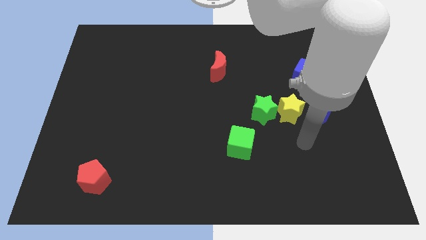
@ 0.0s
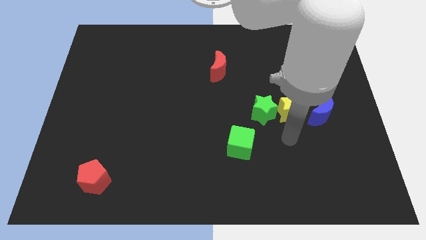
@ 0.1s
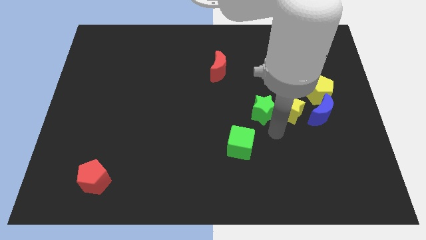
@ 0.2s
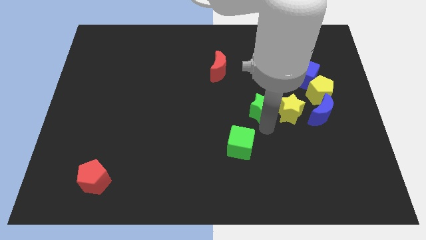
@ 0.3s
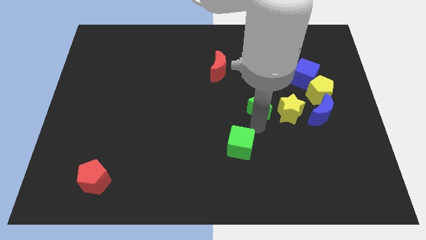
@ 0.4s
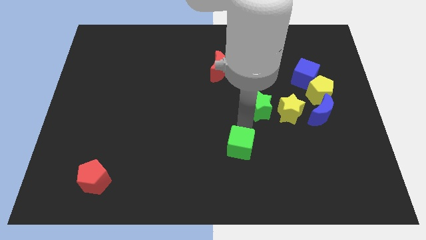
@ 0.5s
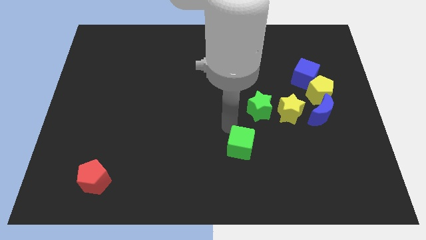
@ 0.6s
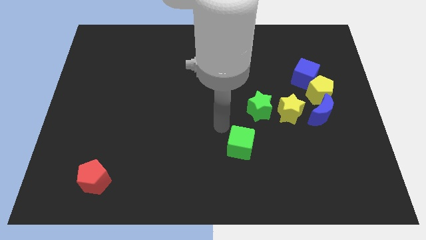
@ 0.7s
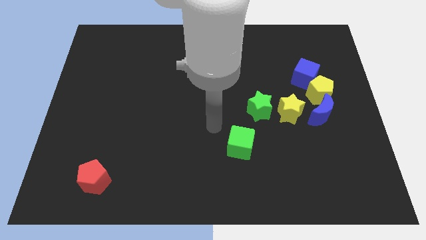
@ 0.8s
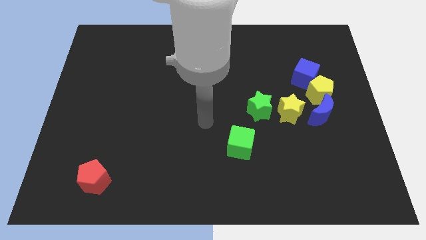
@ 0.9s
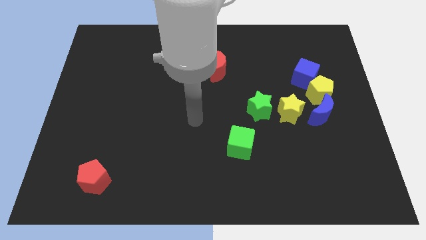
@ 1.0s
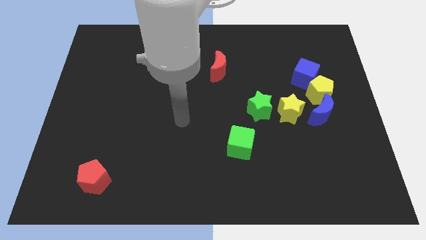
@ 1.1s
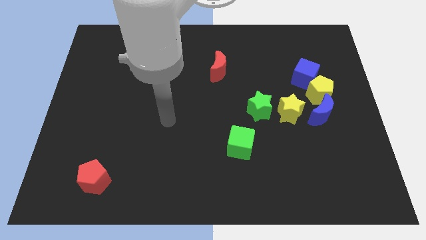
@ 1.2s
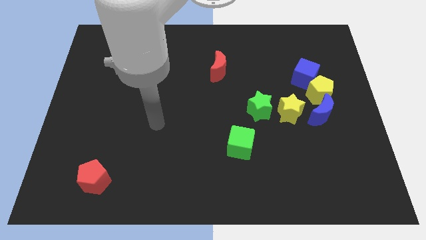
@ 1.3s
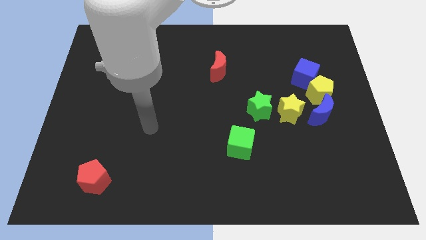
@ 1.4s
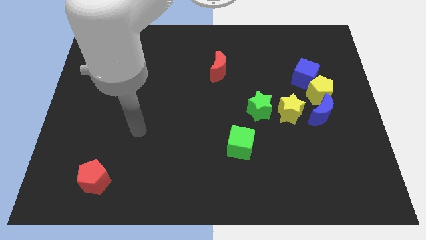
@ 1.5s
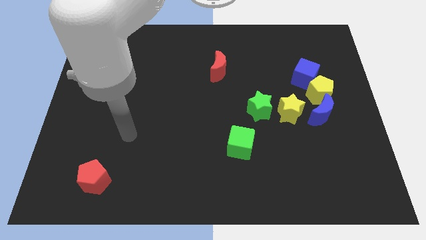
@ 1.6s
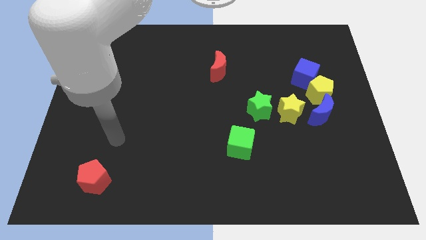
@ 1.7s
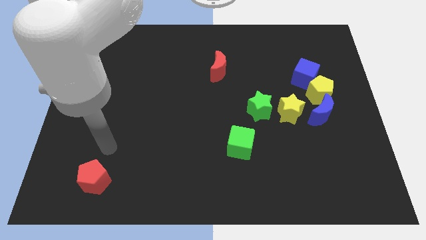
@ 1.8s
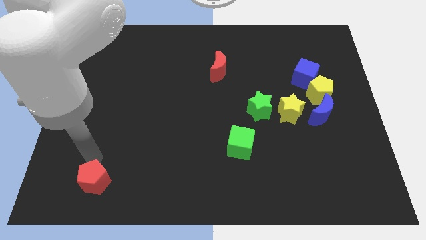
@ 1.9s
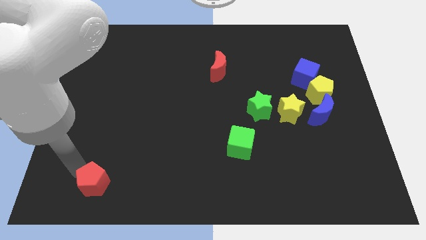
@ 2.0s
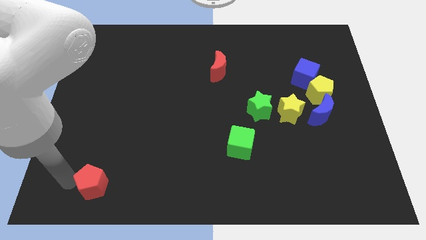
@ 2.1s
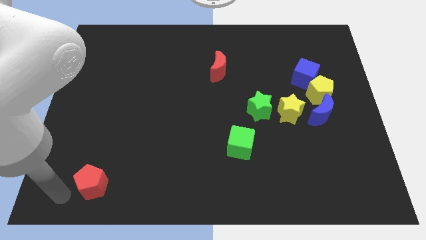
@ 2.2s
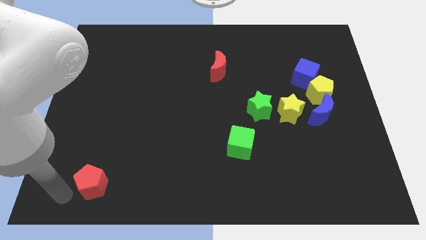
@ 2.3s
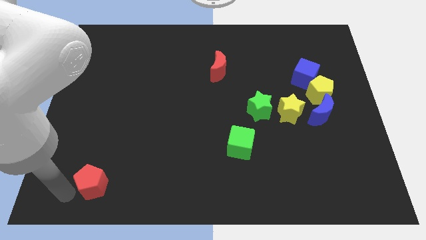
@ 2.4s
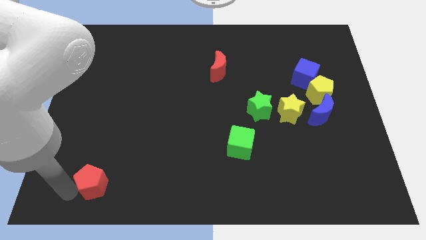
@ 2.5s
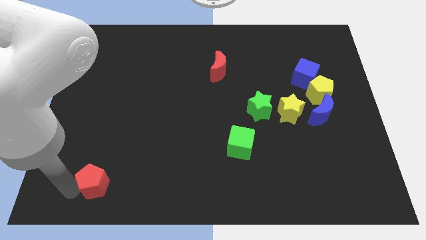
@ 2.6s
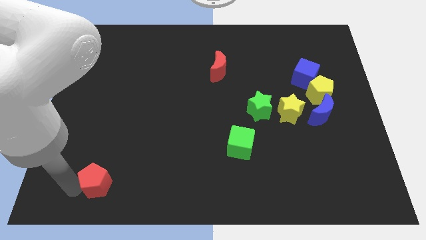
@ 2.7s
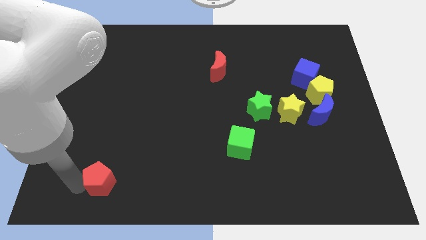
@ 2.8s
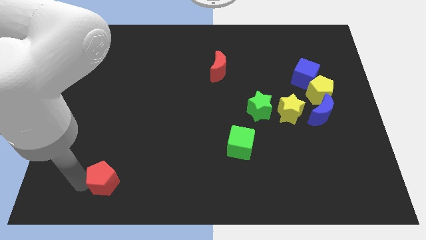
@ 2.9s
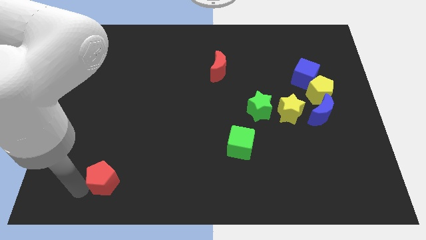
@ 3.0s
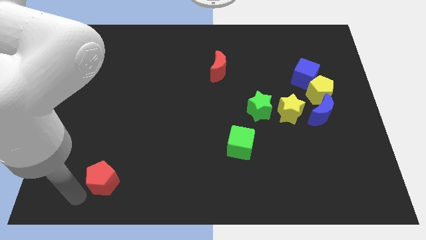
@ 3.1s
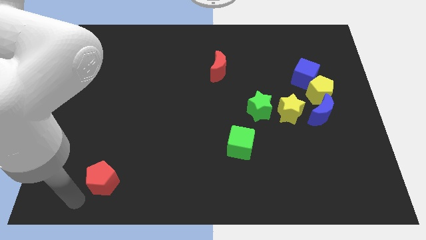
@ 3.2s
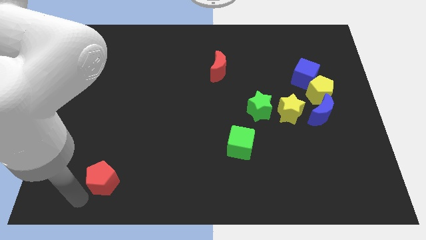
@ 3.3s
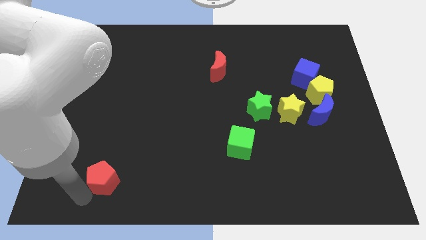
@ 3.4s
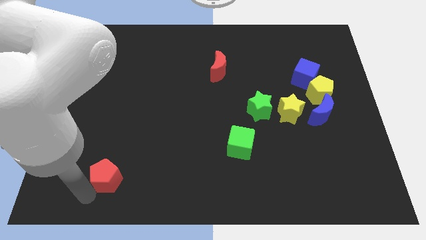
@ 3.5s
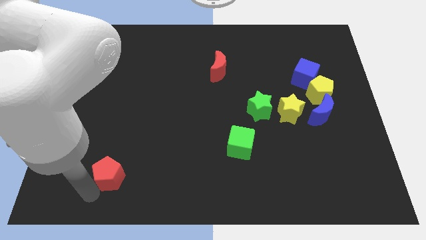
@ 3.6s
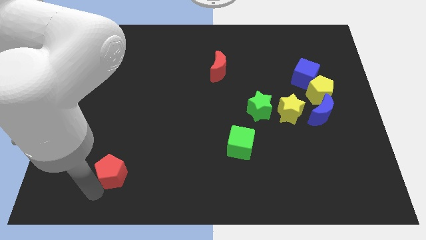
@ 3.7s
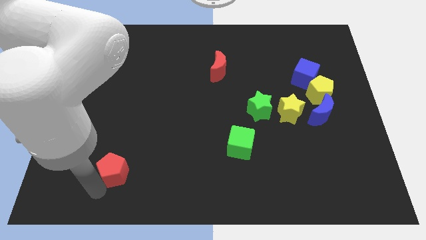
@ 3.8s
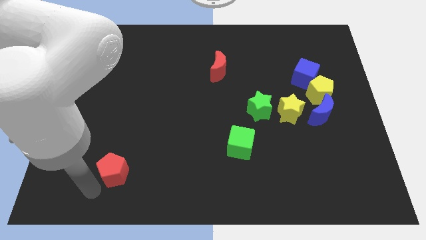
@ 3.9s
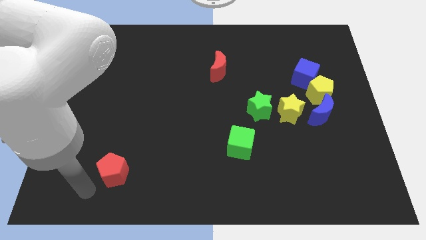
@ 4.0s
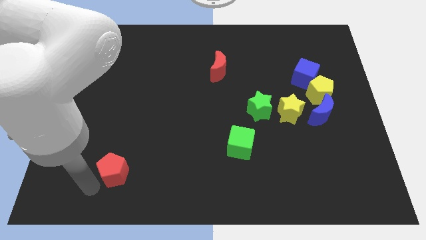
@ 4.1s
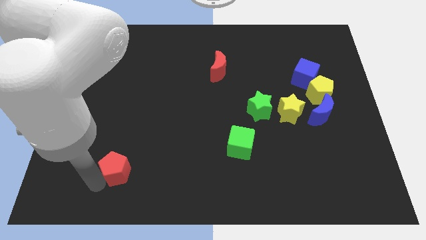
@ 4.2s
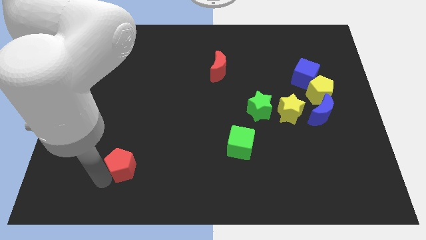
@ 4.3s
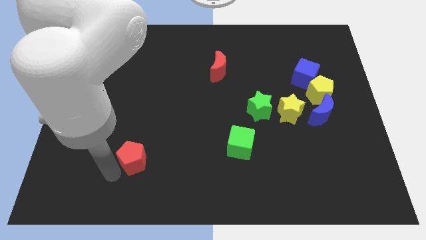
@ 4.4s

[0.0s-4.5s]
slightly slide the red pentagon upwards and right diagonally

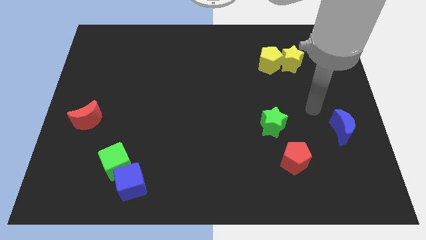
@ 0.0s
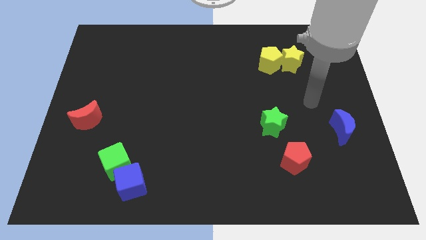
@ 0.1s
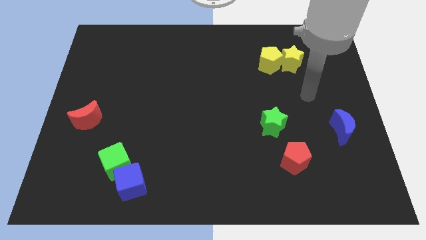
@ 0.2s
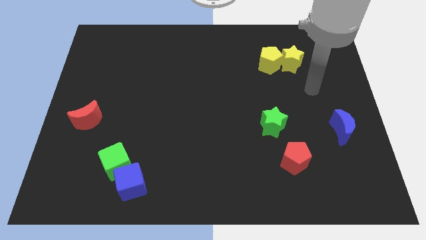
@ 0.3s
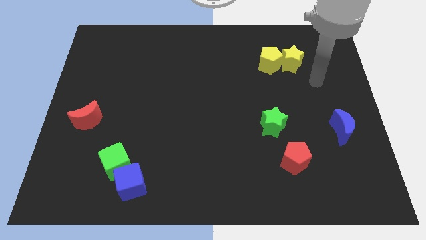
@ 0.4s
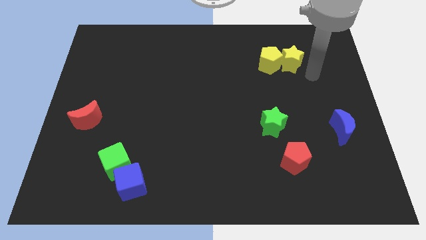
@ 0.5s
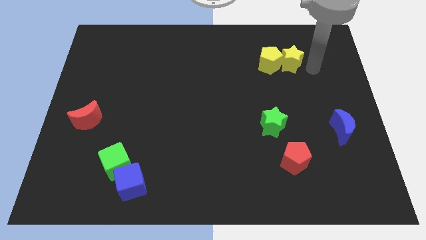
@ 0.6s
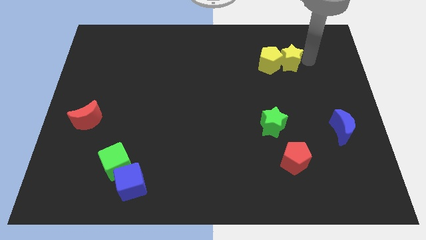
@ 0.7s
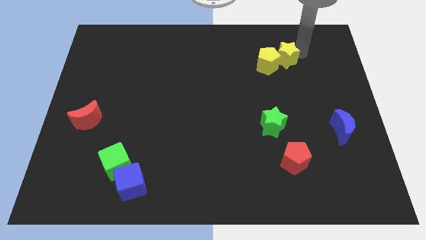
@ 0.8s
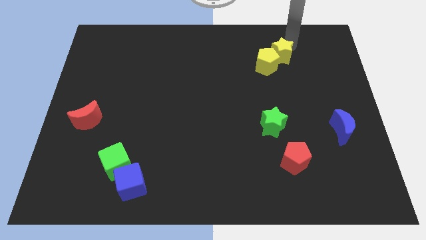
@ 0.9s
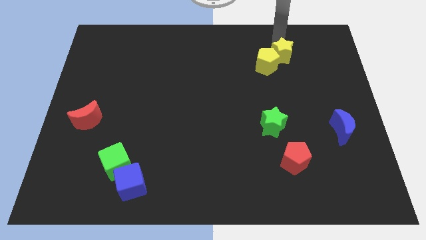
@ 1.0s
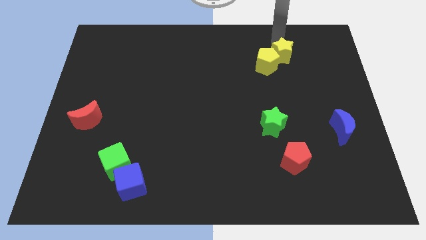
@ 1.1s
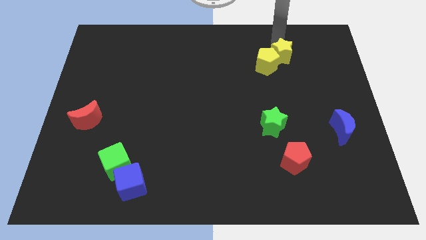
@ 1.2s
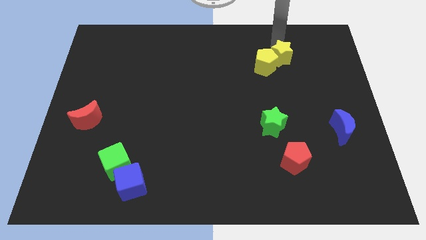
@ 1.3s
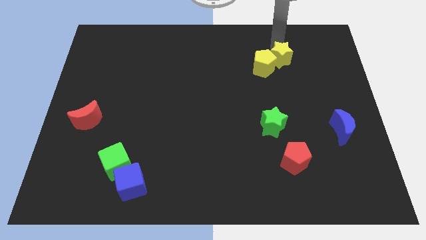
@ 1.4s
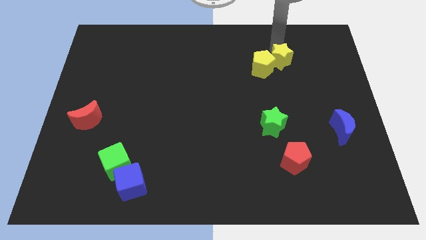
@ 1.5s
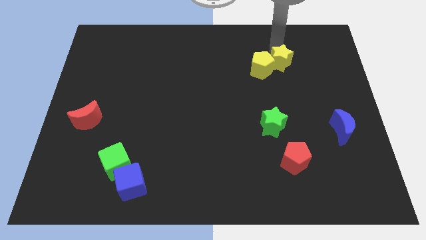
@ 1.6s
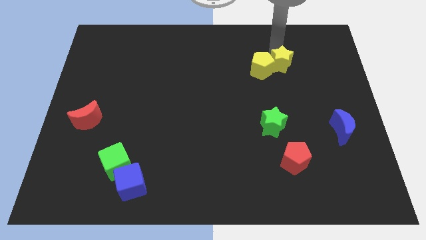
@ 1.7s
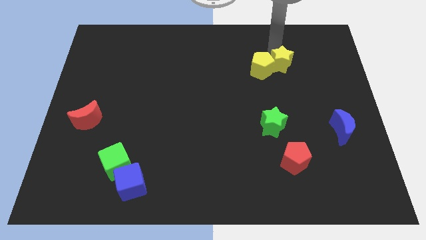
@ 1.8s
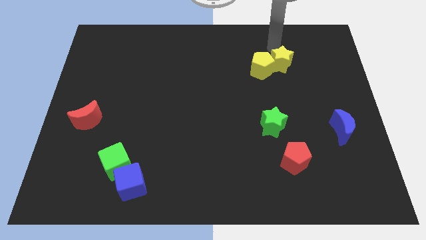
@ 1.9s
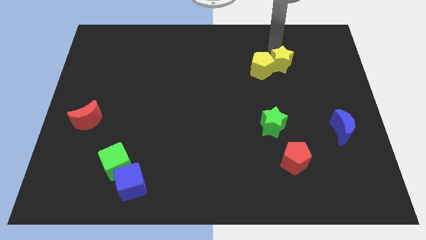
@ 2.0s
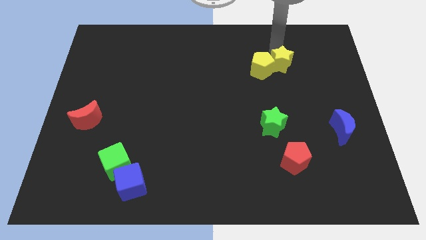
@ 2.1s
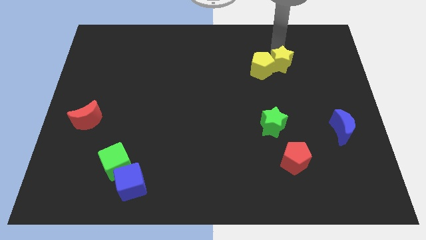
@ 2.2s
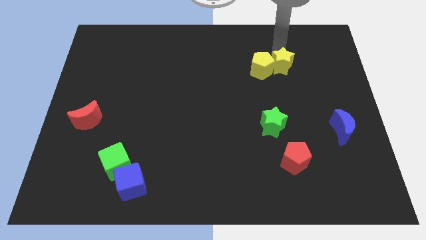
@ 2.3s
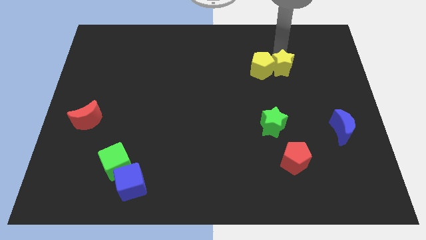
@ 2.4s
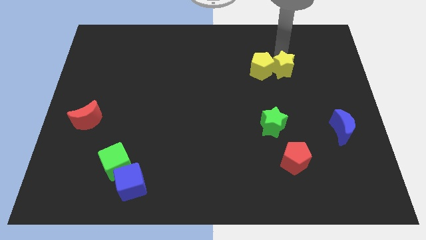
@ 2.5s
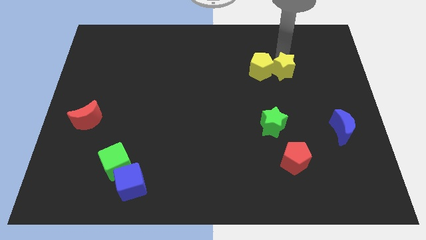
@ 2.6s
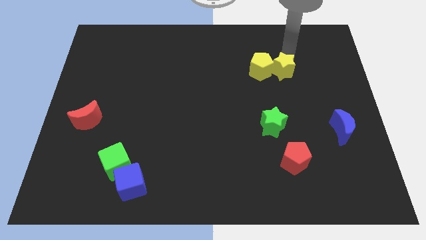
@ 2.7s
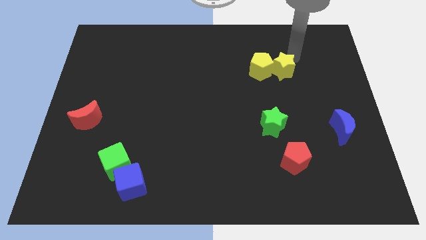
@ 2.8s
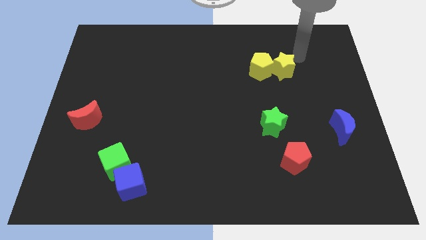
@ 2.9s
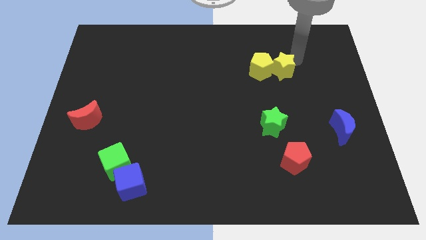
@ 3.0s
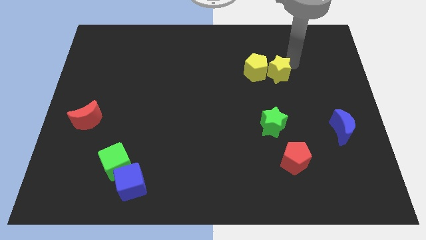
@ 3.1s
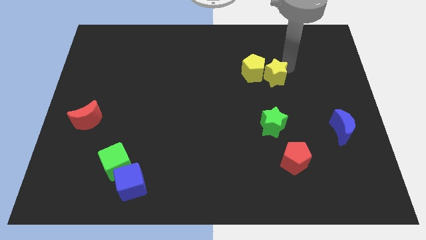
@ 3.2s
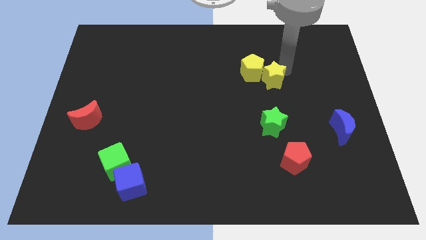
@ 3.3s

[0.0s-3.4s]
slightly push the yellow star downwards and to the left

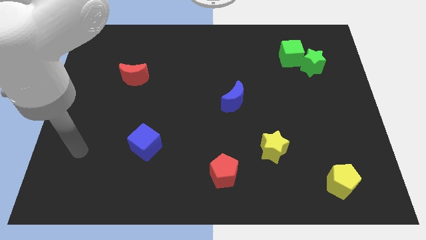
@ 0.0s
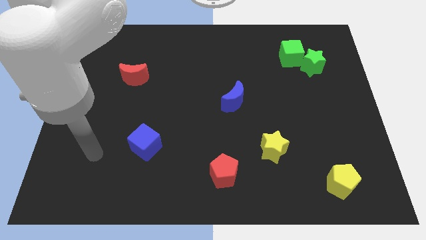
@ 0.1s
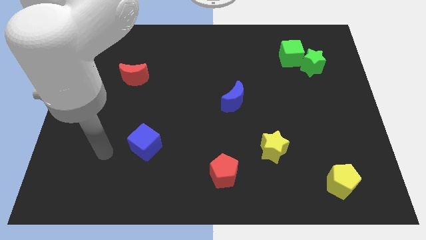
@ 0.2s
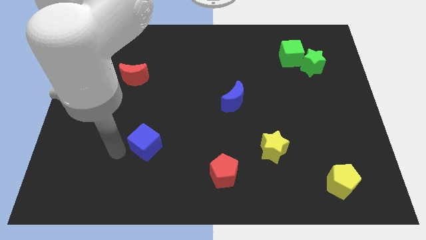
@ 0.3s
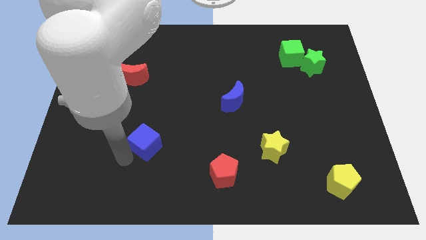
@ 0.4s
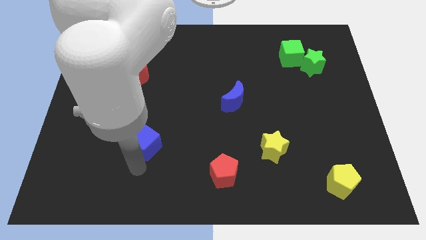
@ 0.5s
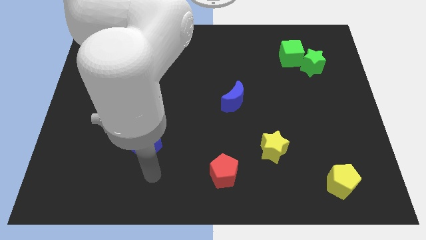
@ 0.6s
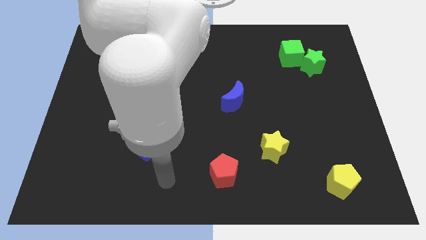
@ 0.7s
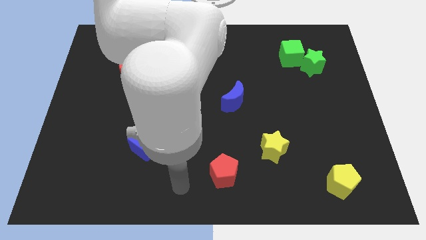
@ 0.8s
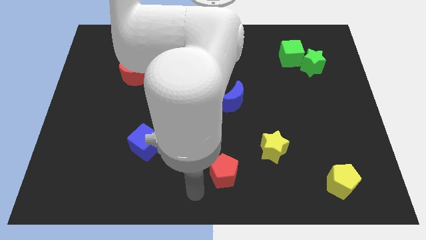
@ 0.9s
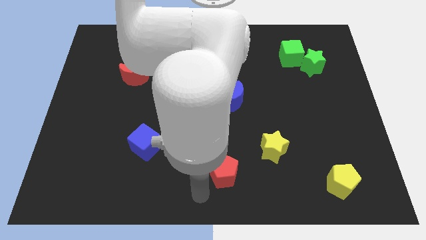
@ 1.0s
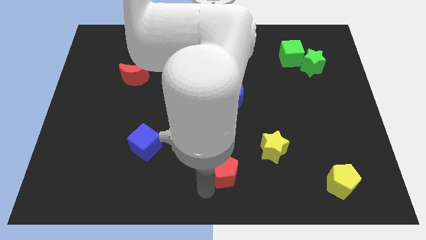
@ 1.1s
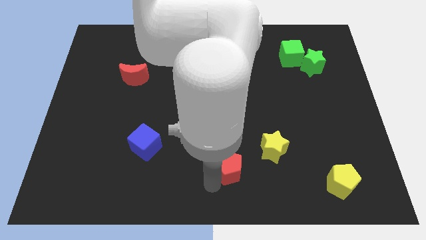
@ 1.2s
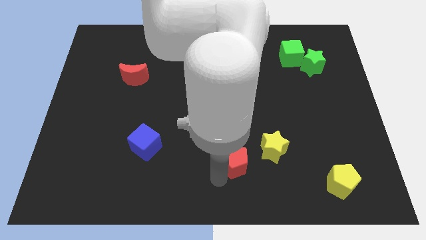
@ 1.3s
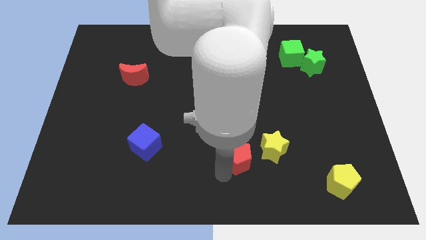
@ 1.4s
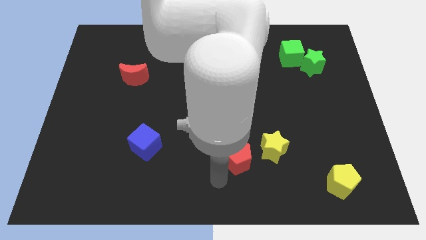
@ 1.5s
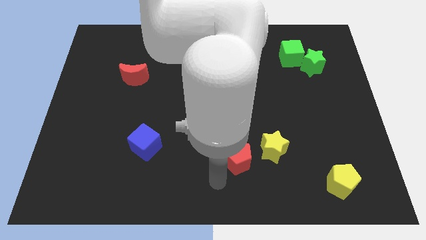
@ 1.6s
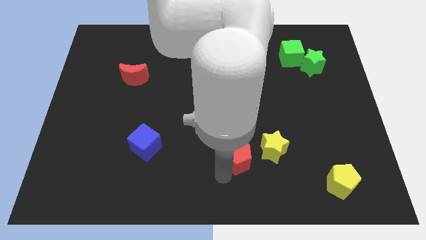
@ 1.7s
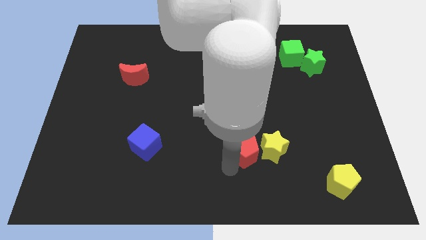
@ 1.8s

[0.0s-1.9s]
slide the red pentagon up and to the right slightly
